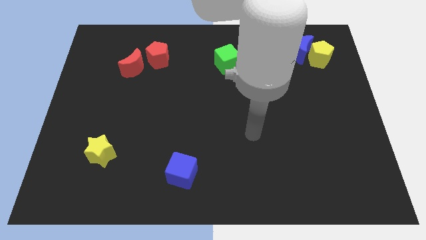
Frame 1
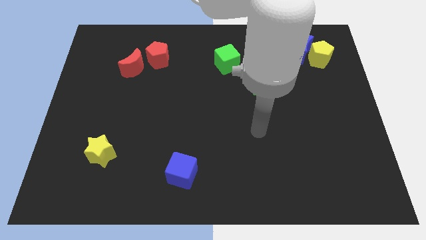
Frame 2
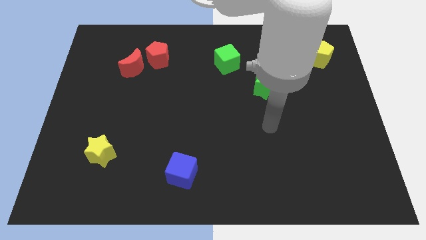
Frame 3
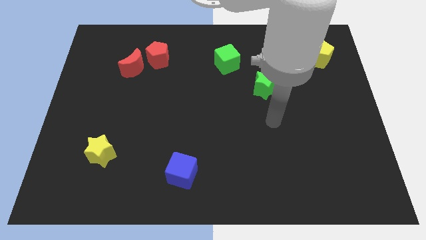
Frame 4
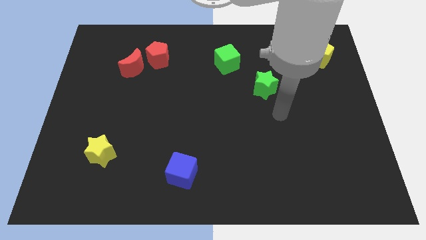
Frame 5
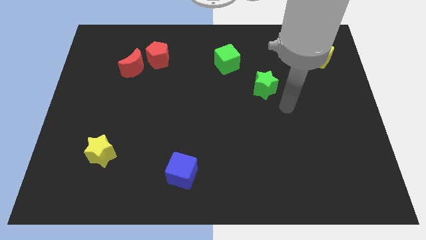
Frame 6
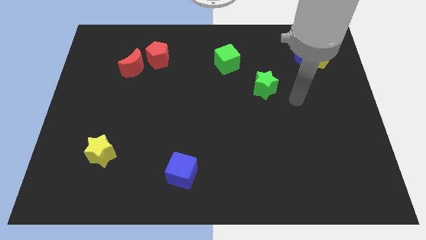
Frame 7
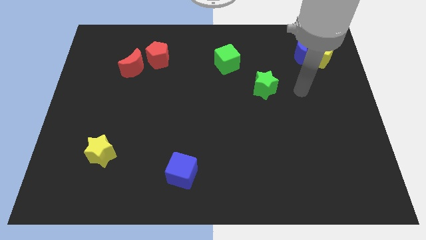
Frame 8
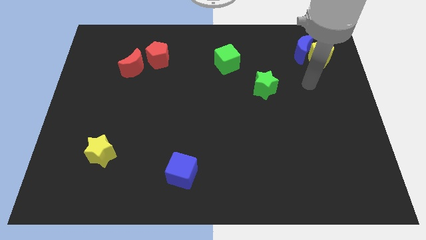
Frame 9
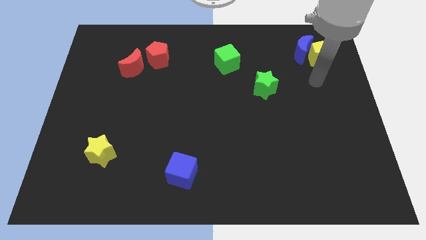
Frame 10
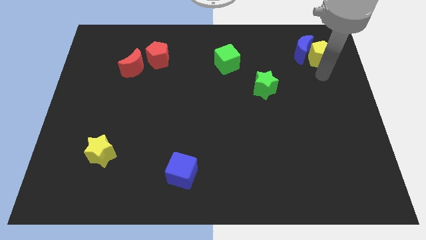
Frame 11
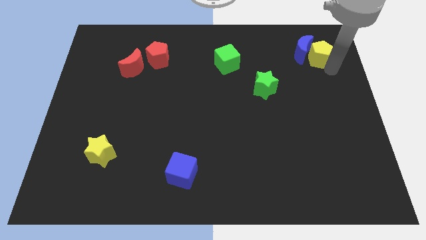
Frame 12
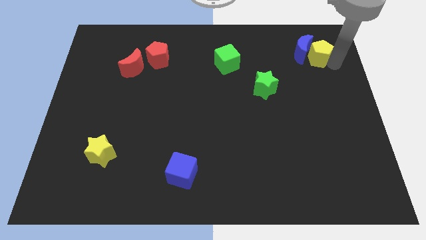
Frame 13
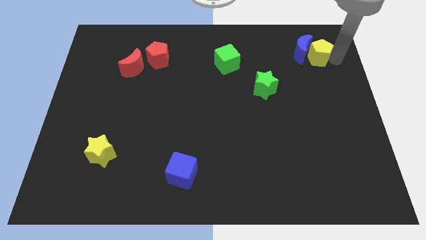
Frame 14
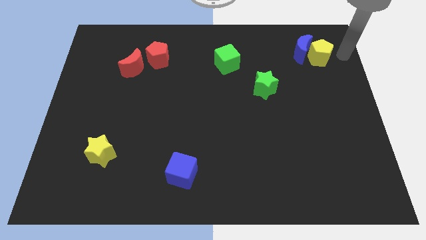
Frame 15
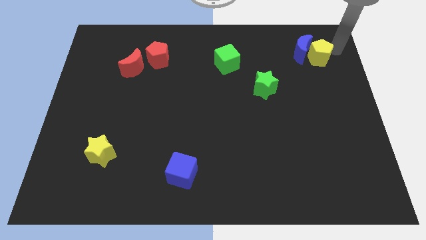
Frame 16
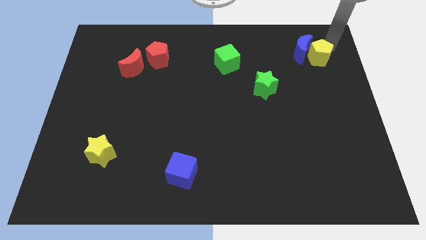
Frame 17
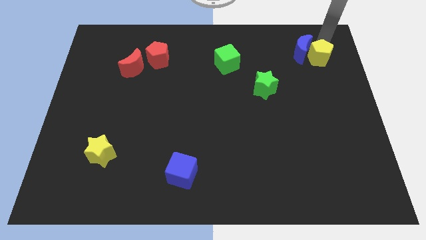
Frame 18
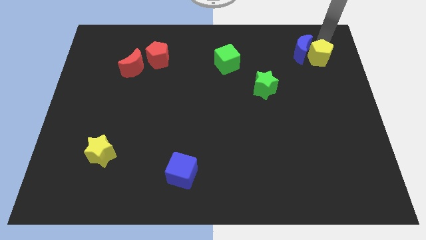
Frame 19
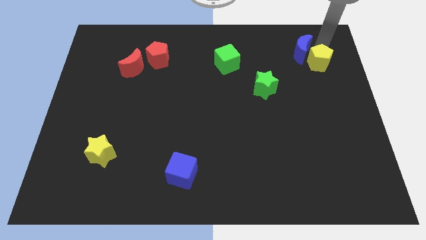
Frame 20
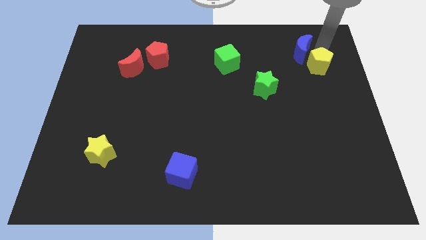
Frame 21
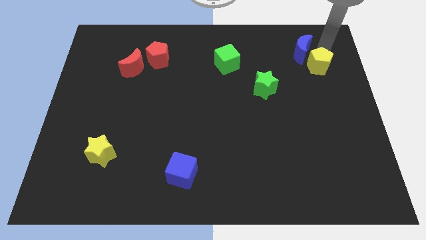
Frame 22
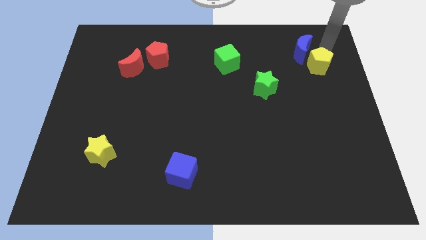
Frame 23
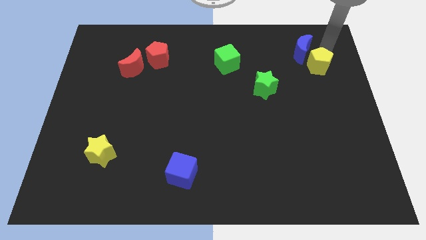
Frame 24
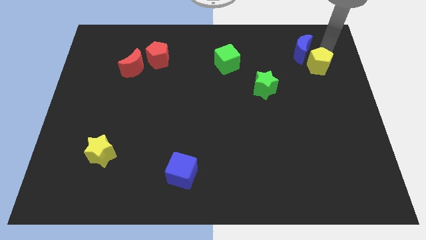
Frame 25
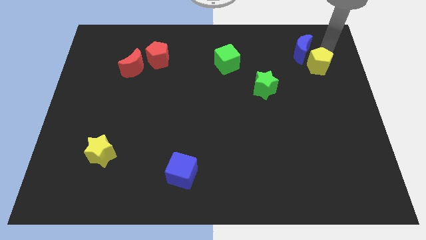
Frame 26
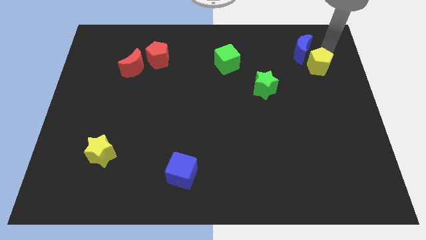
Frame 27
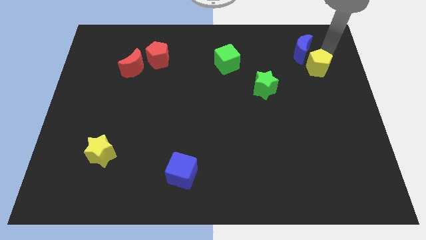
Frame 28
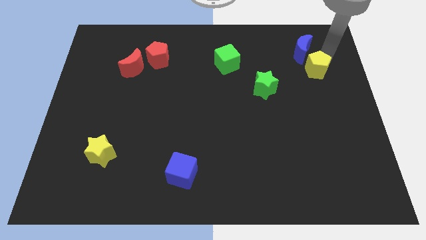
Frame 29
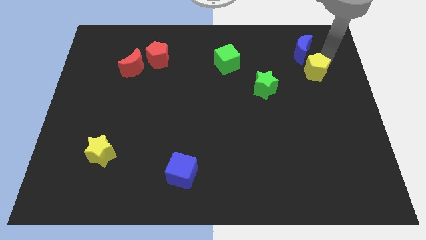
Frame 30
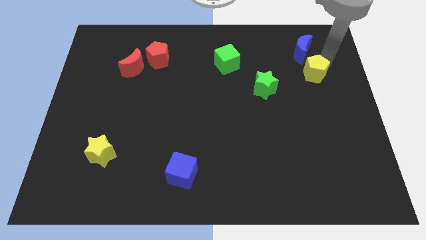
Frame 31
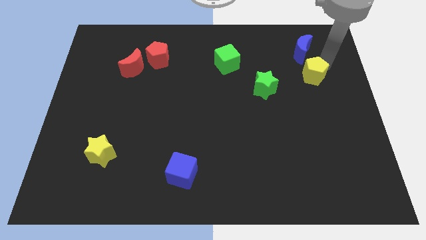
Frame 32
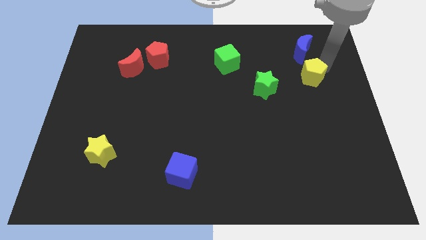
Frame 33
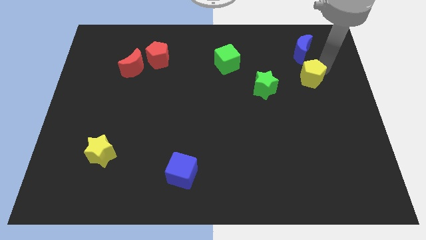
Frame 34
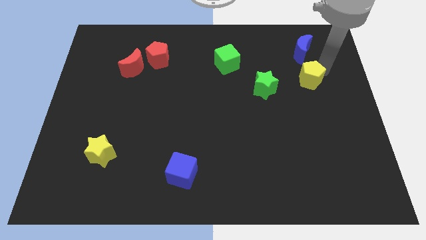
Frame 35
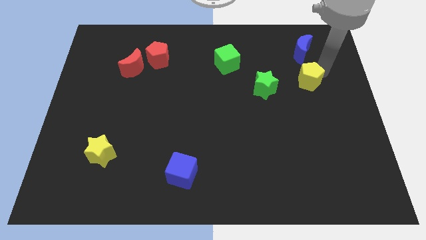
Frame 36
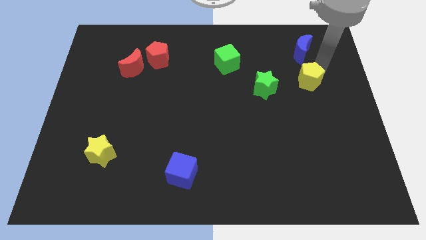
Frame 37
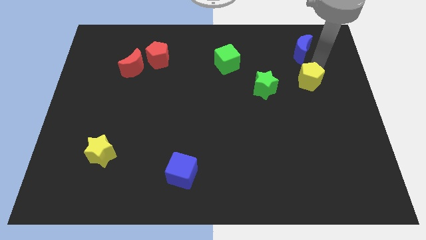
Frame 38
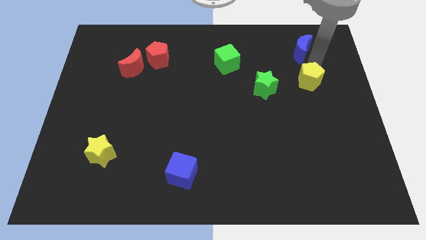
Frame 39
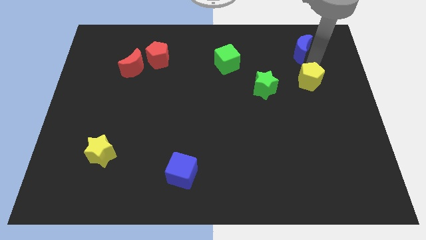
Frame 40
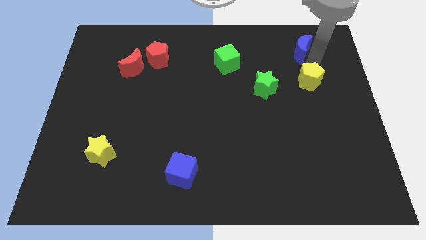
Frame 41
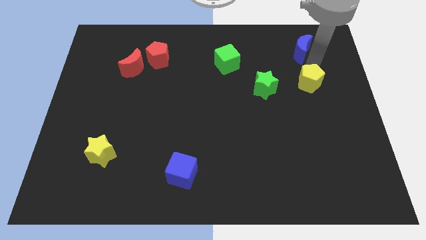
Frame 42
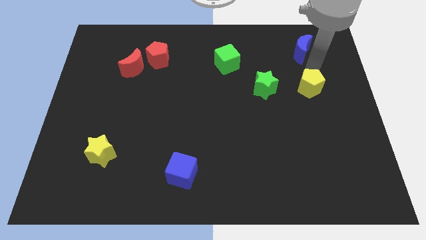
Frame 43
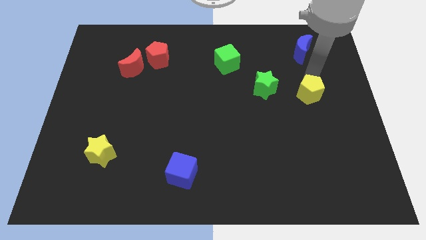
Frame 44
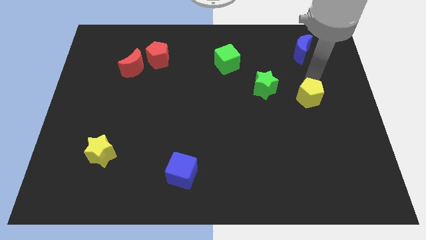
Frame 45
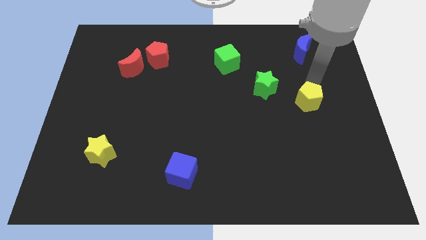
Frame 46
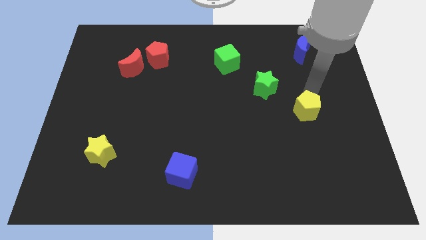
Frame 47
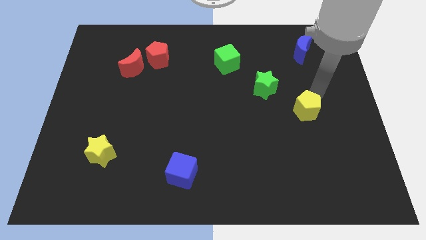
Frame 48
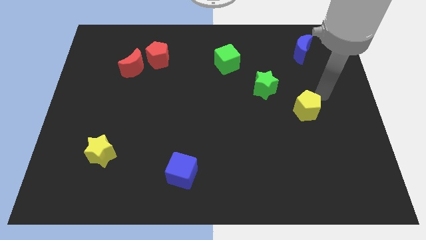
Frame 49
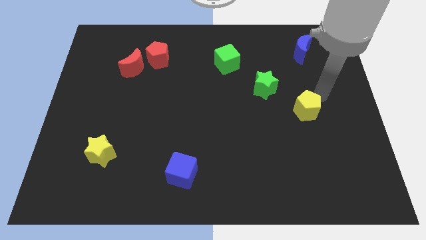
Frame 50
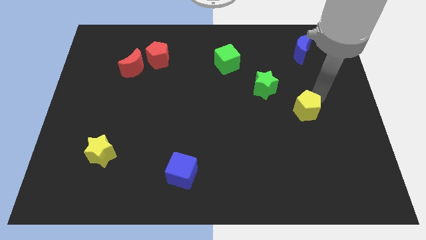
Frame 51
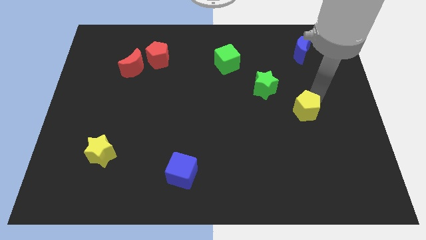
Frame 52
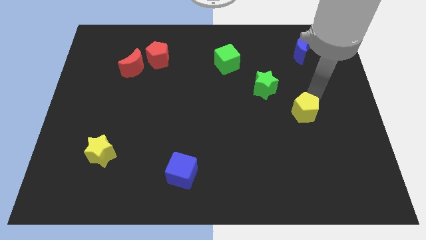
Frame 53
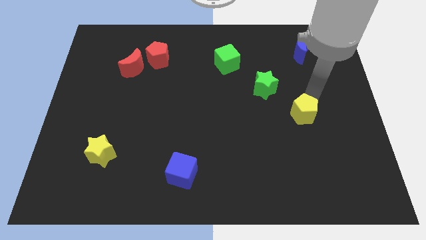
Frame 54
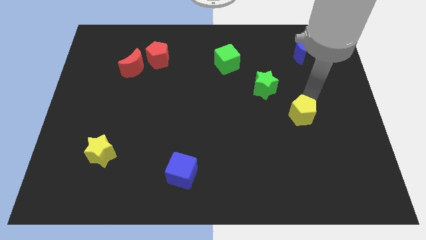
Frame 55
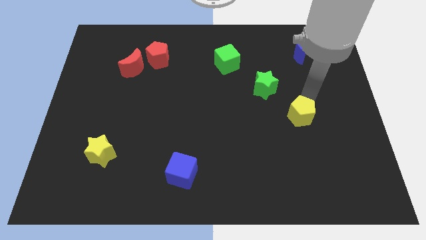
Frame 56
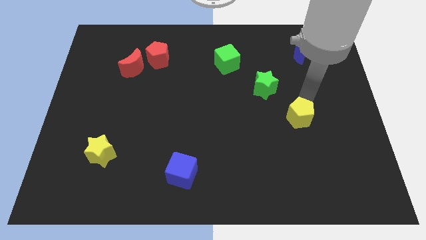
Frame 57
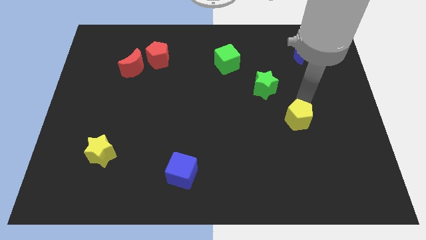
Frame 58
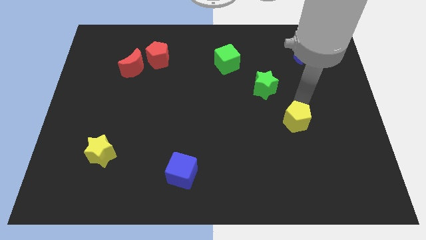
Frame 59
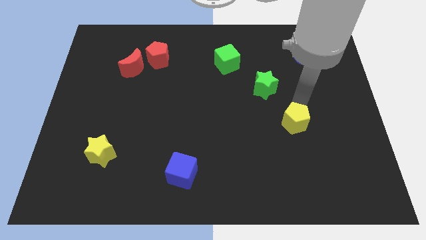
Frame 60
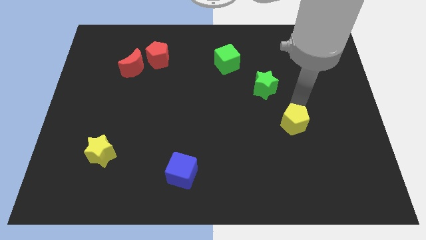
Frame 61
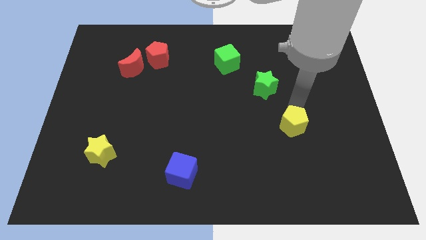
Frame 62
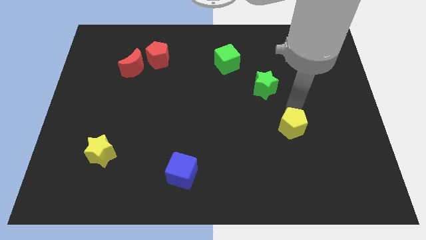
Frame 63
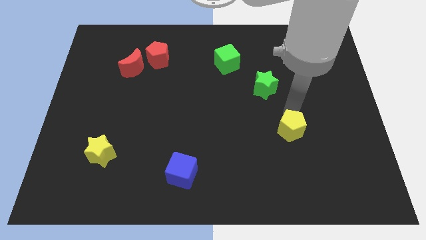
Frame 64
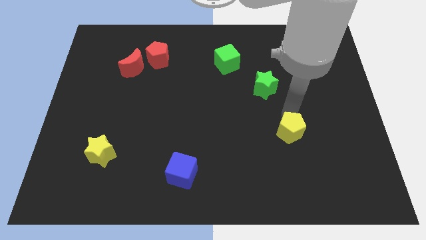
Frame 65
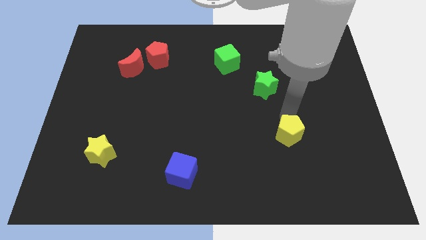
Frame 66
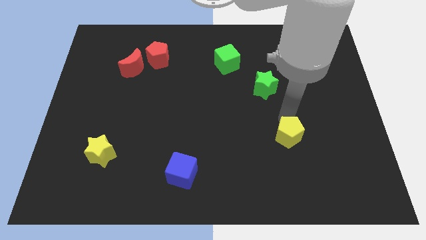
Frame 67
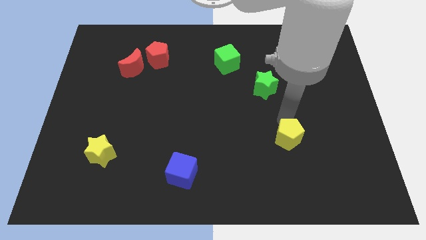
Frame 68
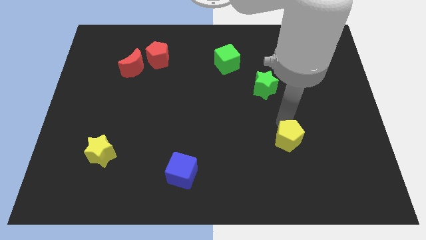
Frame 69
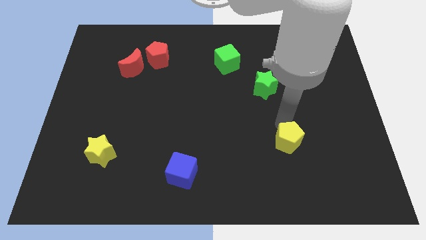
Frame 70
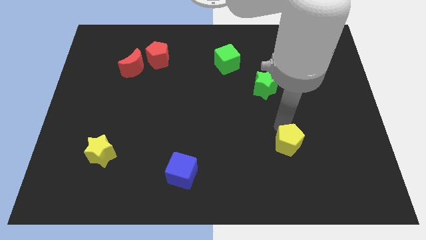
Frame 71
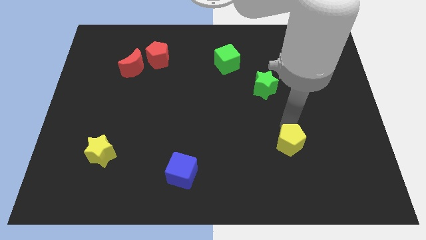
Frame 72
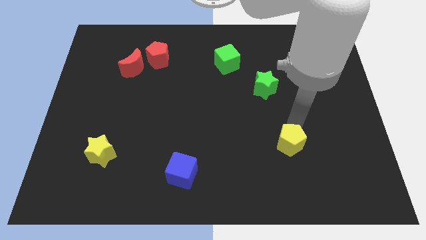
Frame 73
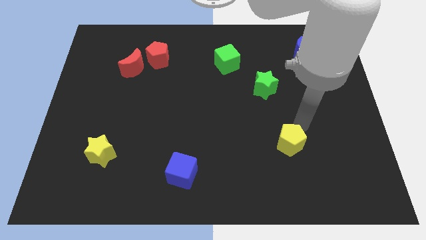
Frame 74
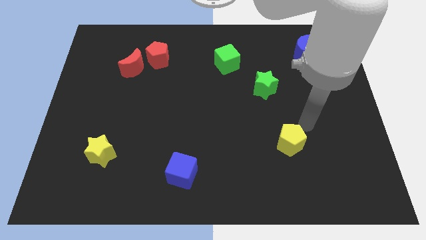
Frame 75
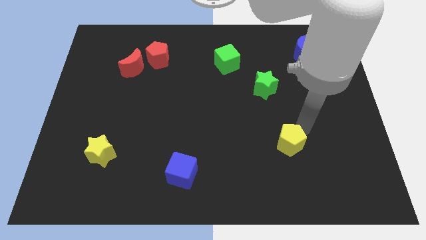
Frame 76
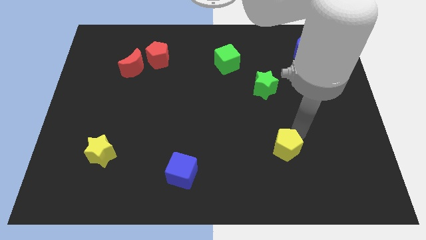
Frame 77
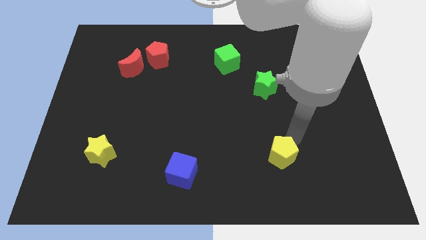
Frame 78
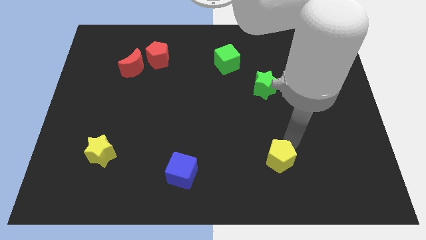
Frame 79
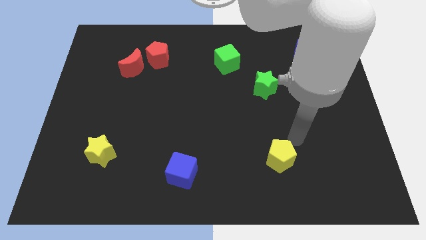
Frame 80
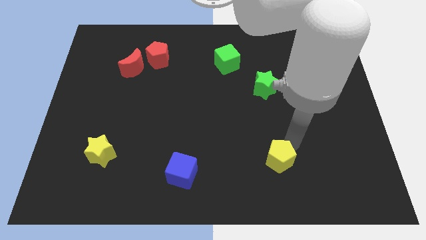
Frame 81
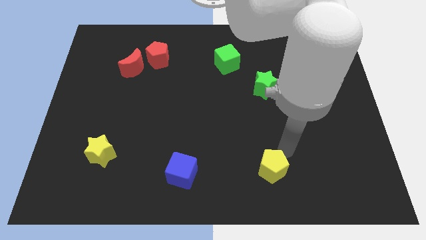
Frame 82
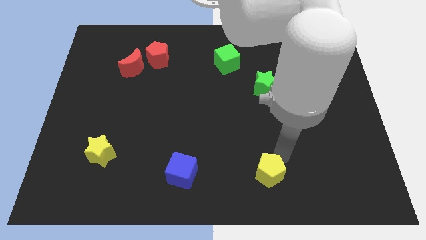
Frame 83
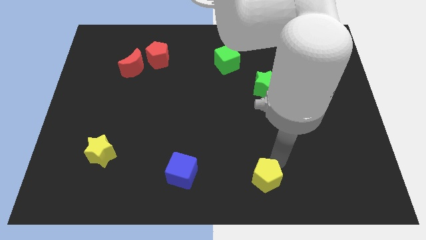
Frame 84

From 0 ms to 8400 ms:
slide the yellow pentagon to the bottom
